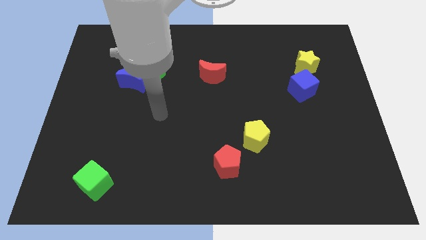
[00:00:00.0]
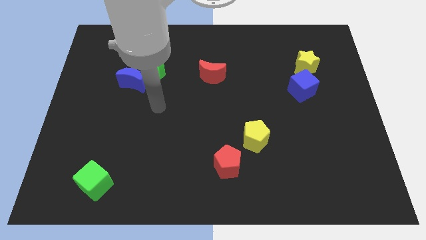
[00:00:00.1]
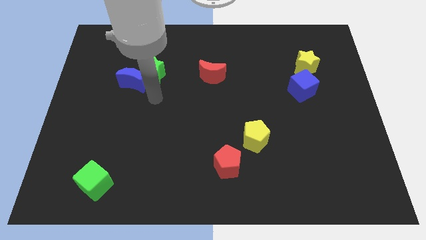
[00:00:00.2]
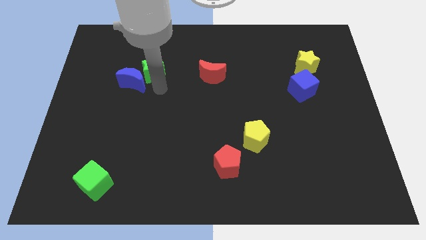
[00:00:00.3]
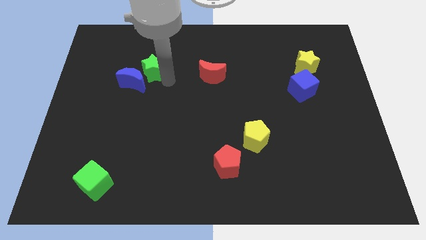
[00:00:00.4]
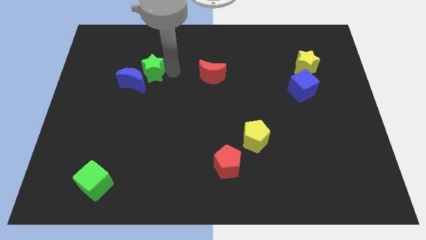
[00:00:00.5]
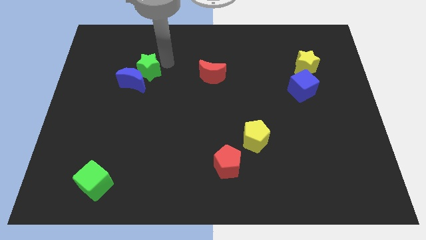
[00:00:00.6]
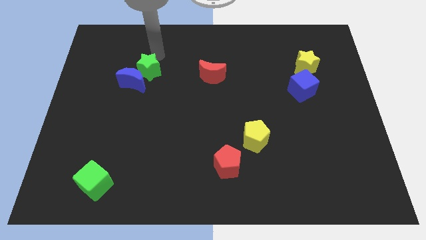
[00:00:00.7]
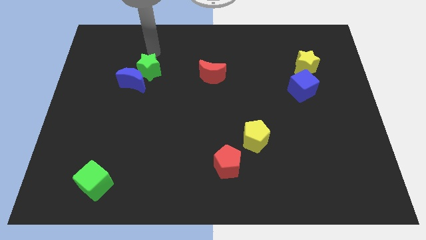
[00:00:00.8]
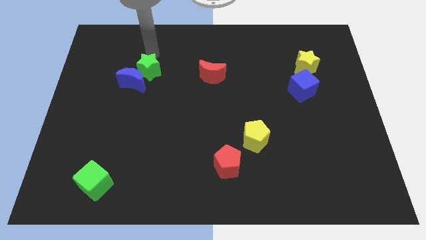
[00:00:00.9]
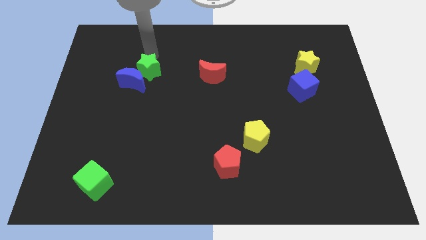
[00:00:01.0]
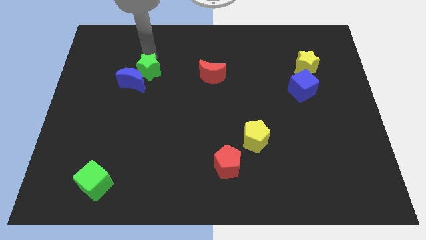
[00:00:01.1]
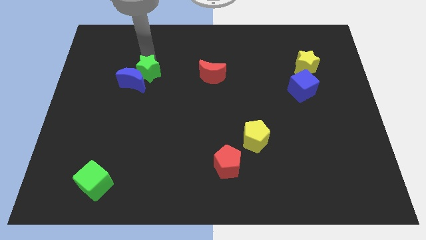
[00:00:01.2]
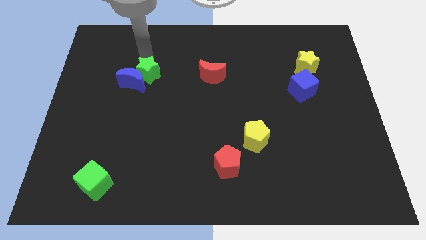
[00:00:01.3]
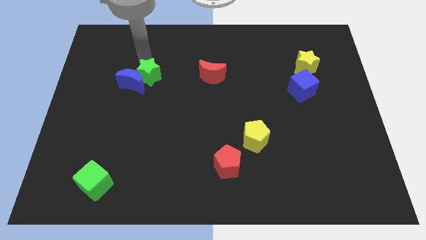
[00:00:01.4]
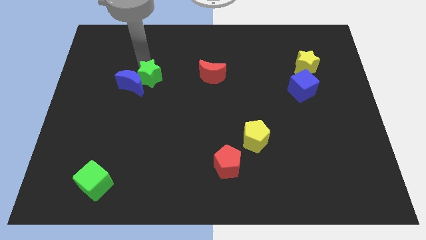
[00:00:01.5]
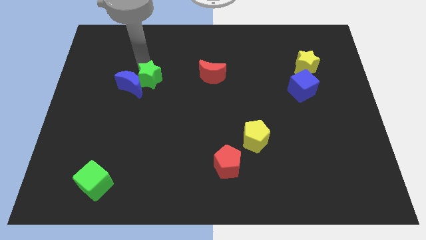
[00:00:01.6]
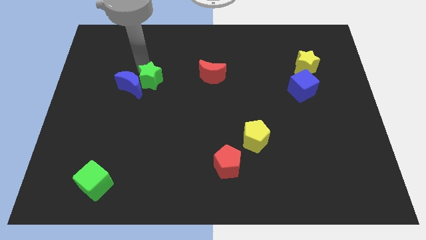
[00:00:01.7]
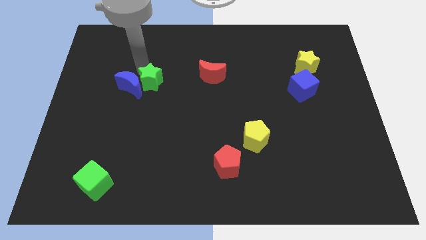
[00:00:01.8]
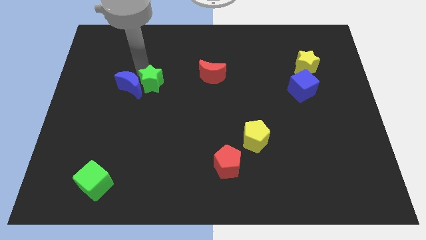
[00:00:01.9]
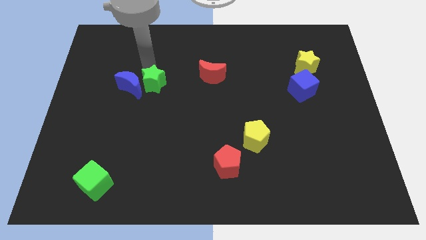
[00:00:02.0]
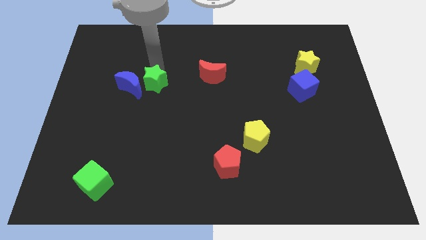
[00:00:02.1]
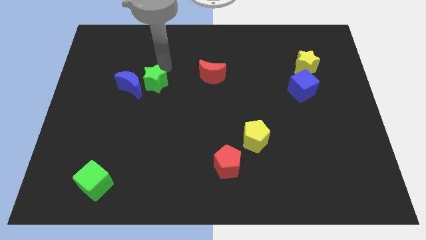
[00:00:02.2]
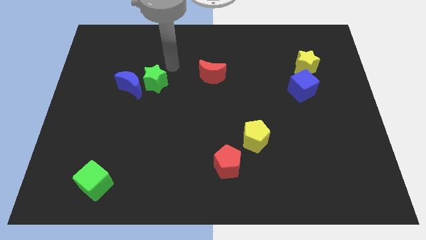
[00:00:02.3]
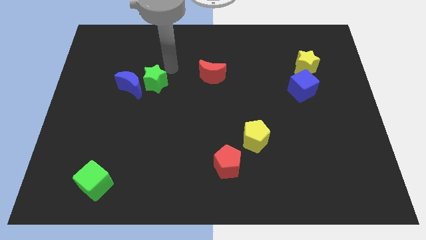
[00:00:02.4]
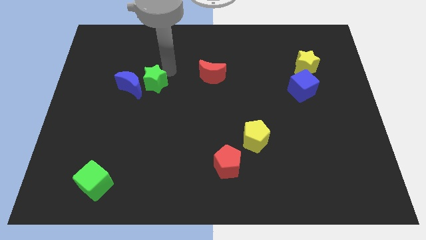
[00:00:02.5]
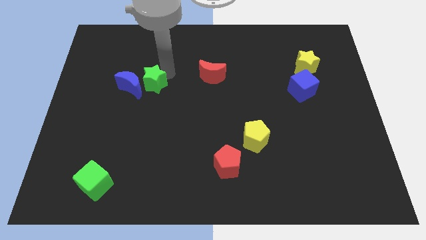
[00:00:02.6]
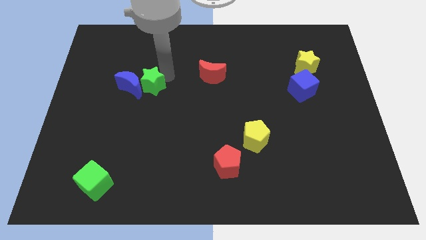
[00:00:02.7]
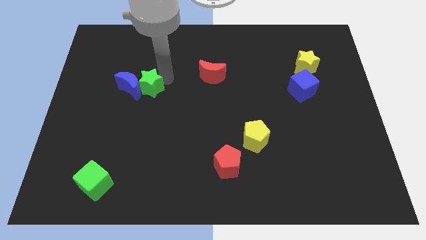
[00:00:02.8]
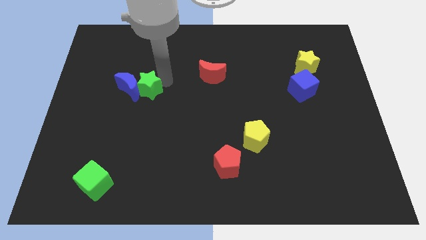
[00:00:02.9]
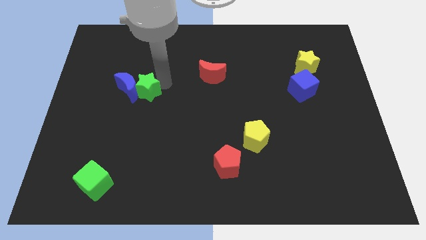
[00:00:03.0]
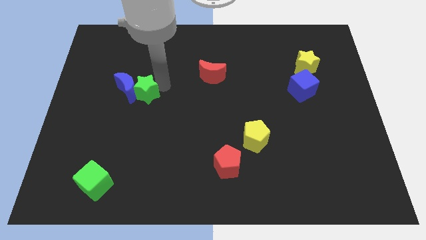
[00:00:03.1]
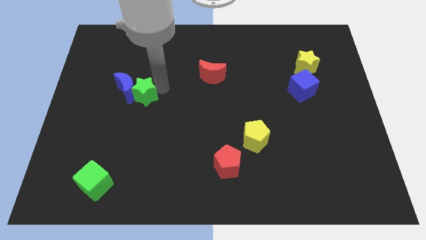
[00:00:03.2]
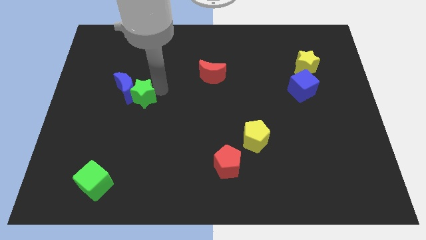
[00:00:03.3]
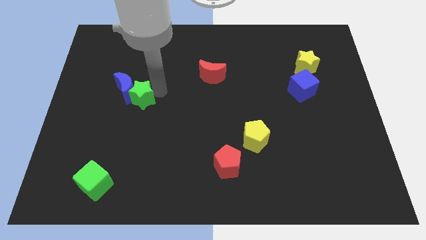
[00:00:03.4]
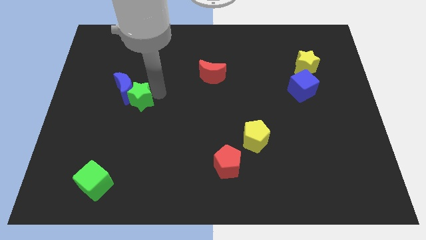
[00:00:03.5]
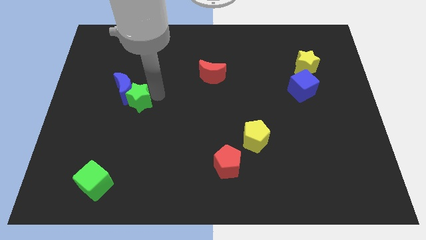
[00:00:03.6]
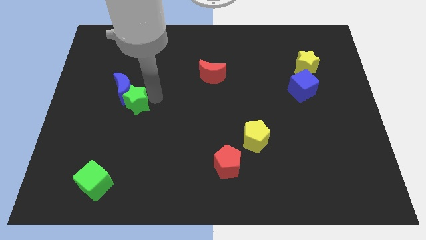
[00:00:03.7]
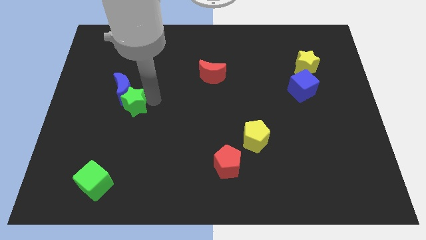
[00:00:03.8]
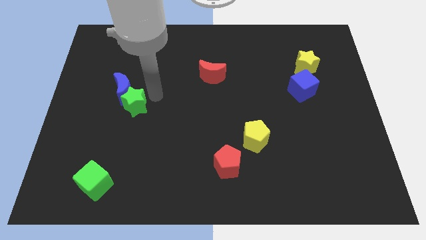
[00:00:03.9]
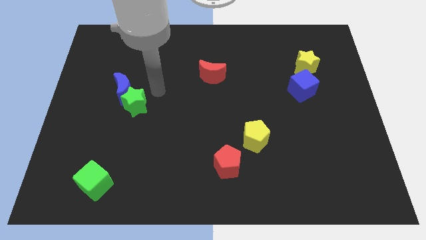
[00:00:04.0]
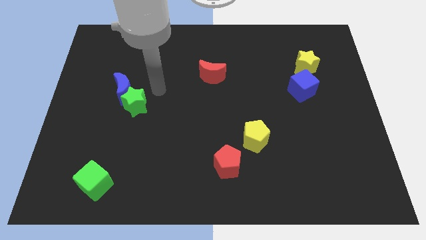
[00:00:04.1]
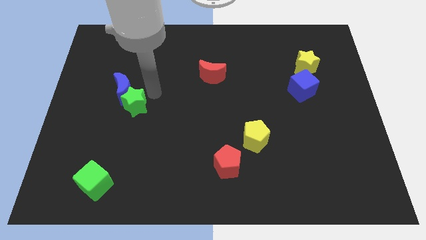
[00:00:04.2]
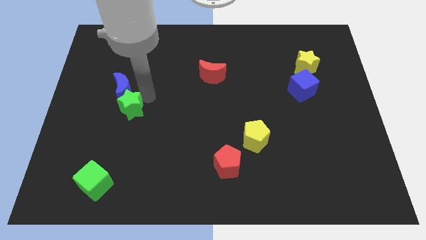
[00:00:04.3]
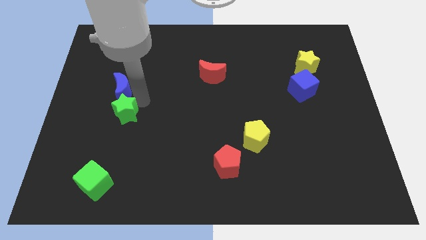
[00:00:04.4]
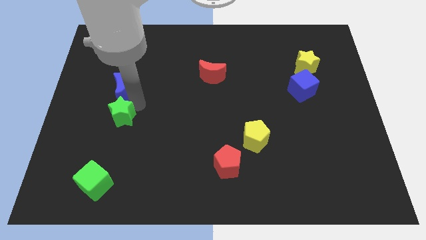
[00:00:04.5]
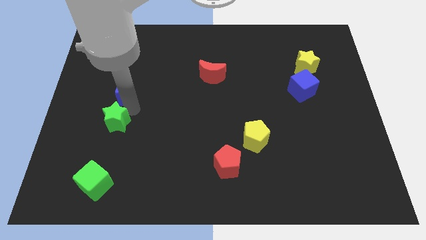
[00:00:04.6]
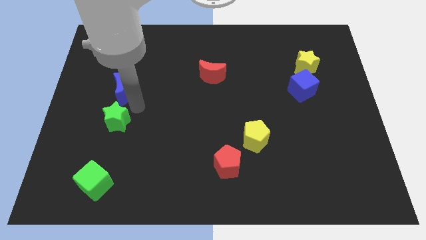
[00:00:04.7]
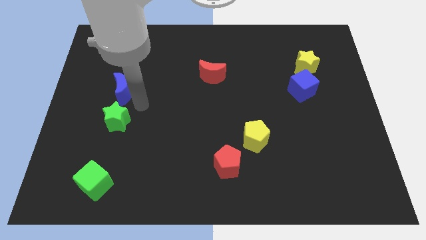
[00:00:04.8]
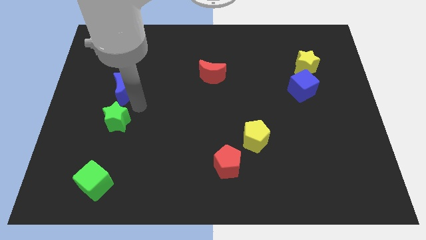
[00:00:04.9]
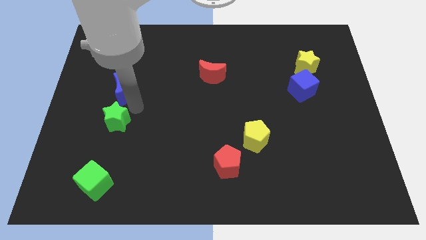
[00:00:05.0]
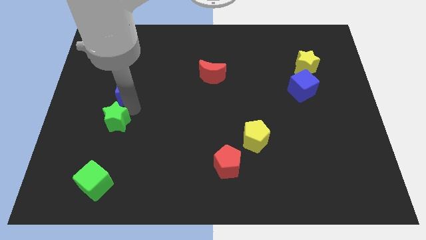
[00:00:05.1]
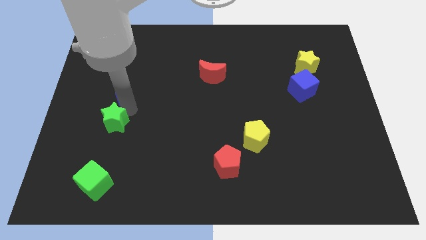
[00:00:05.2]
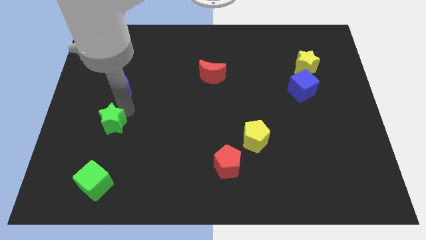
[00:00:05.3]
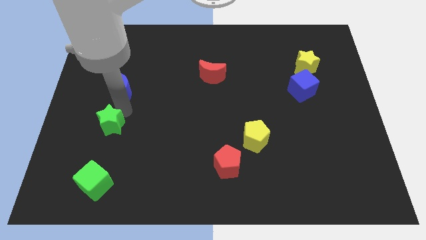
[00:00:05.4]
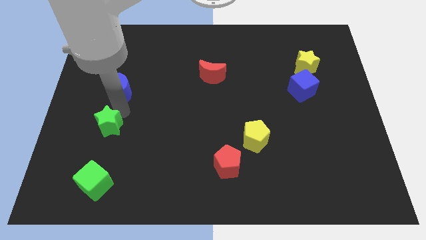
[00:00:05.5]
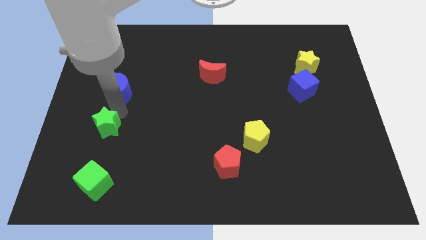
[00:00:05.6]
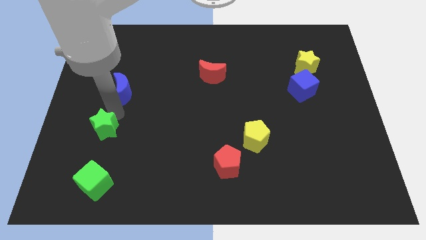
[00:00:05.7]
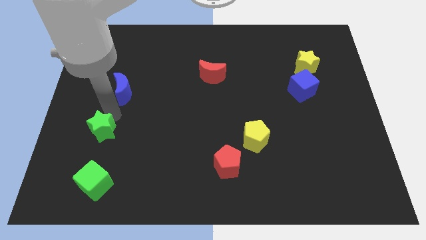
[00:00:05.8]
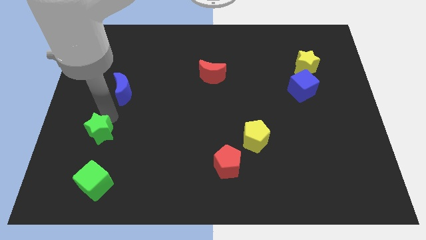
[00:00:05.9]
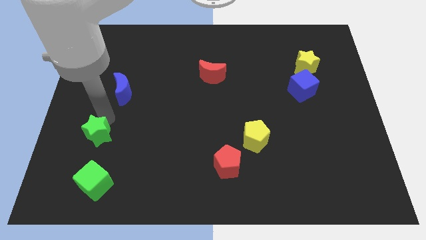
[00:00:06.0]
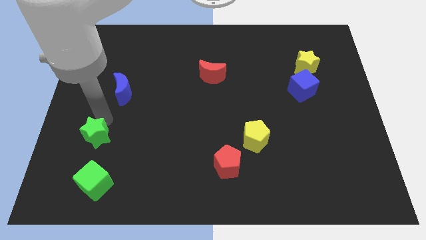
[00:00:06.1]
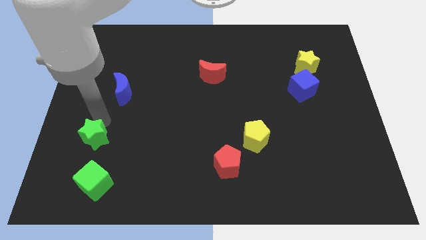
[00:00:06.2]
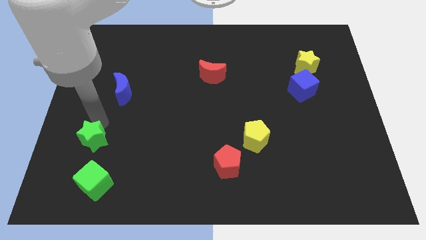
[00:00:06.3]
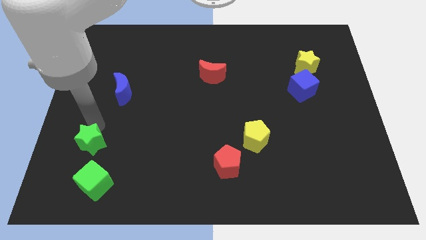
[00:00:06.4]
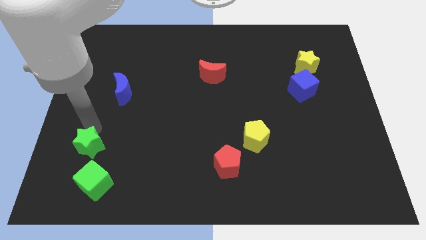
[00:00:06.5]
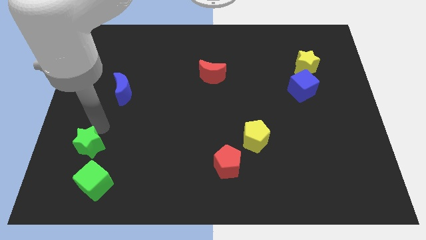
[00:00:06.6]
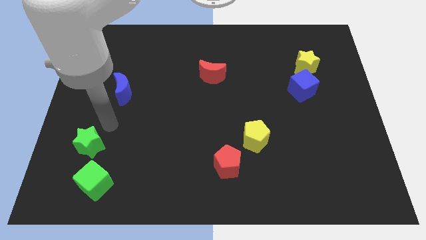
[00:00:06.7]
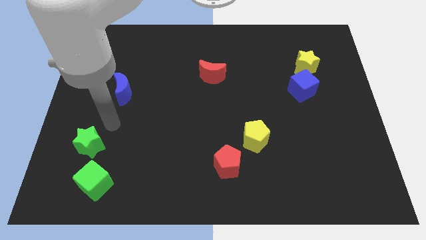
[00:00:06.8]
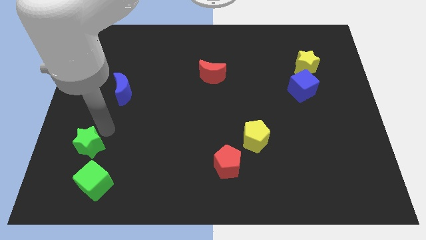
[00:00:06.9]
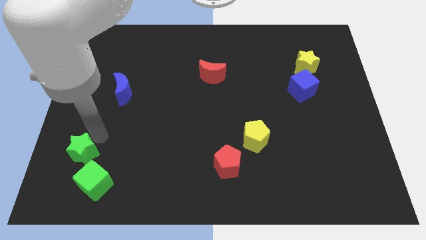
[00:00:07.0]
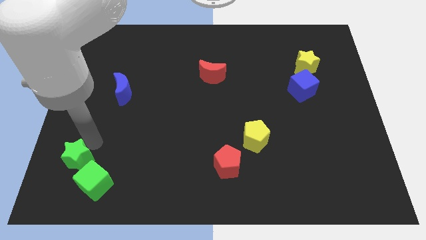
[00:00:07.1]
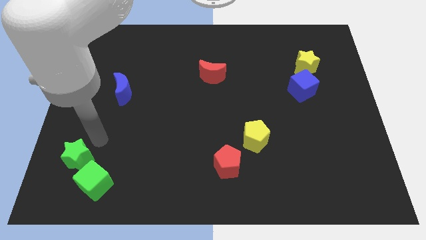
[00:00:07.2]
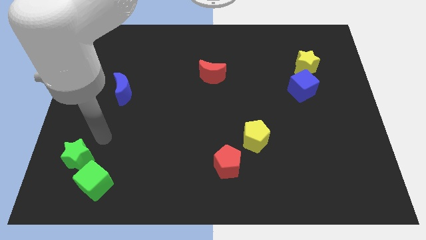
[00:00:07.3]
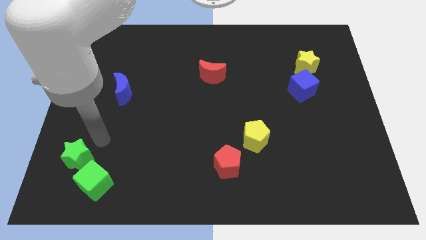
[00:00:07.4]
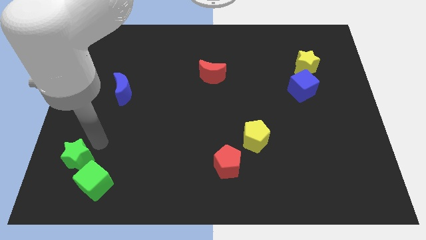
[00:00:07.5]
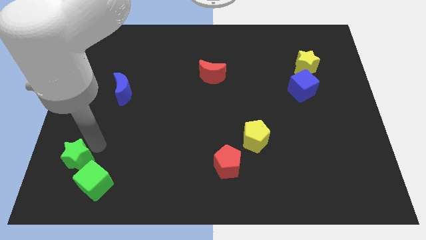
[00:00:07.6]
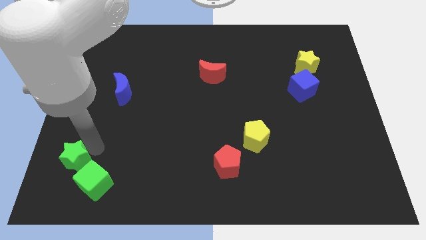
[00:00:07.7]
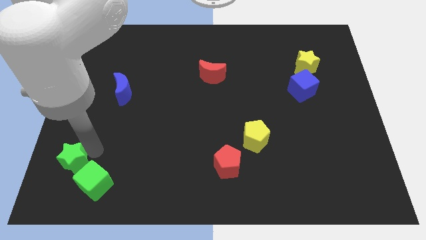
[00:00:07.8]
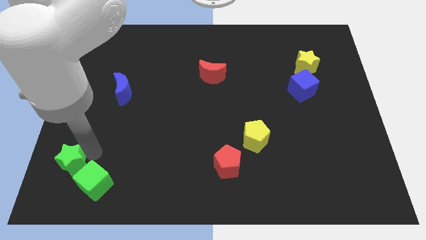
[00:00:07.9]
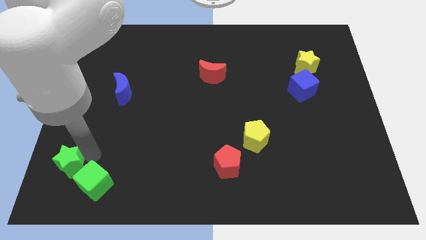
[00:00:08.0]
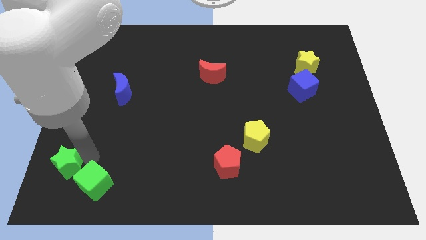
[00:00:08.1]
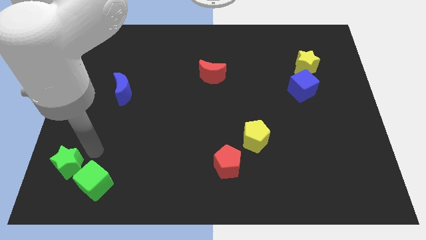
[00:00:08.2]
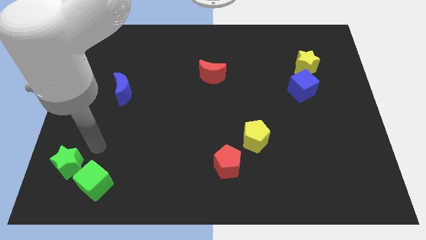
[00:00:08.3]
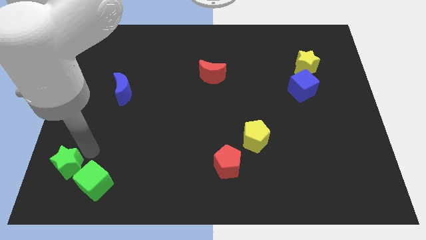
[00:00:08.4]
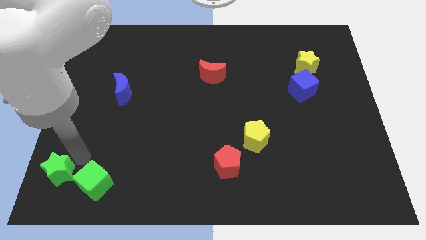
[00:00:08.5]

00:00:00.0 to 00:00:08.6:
move the green star to the bottom left
